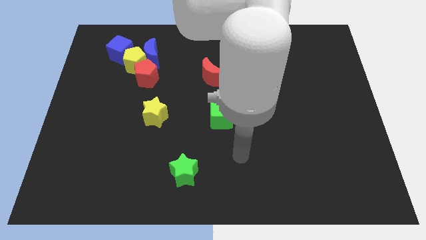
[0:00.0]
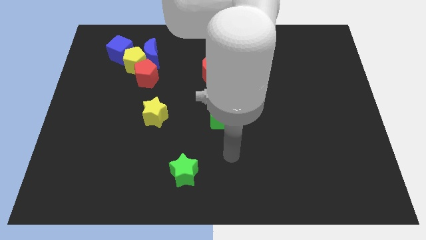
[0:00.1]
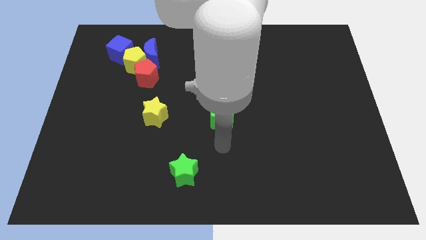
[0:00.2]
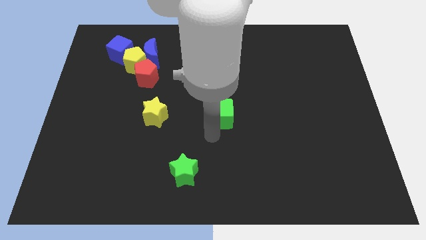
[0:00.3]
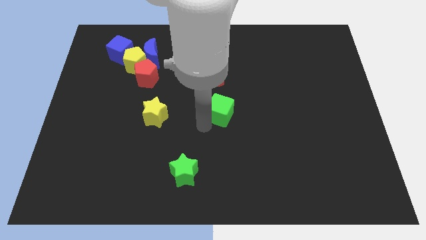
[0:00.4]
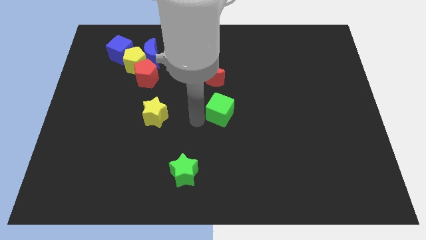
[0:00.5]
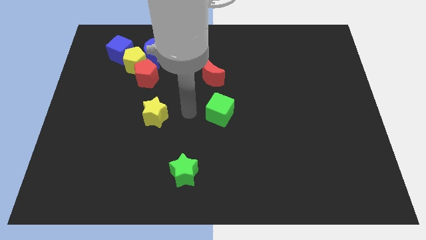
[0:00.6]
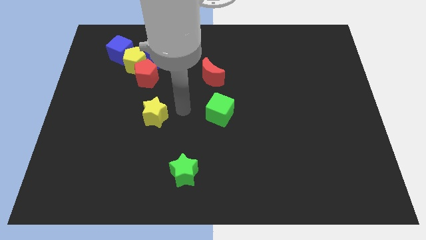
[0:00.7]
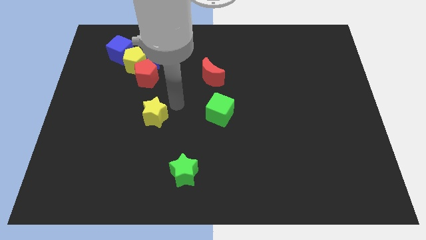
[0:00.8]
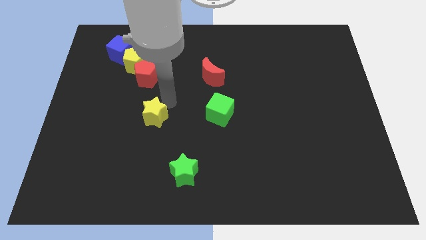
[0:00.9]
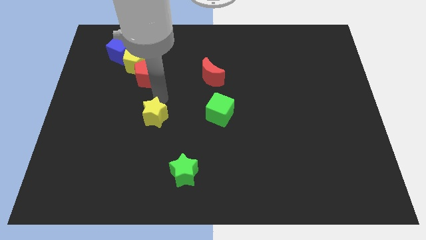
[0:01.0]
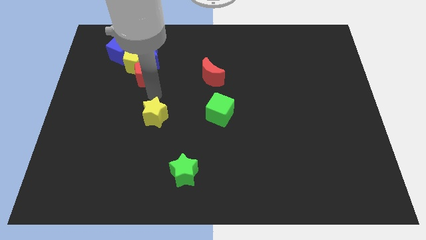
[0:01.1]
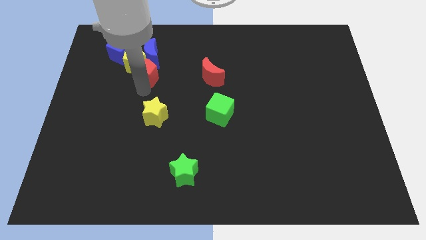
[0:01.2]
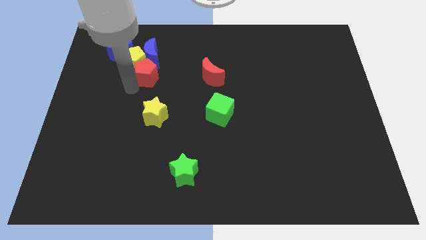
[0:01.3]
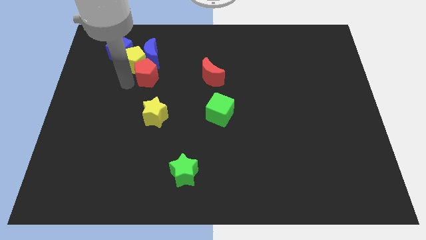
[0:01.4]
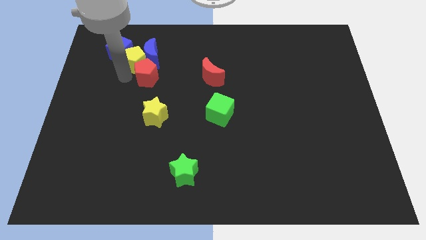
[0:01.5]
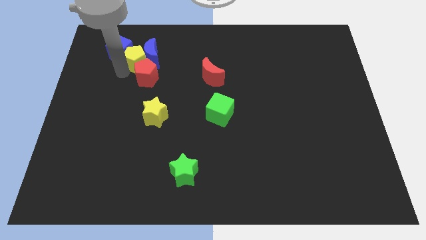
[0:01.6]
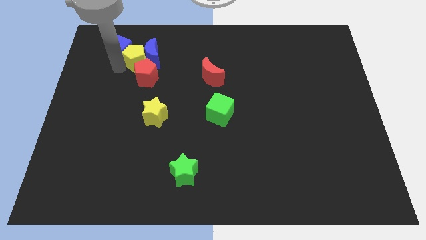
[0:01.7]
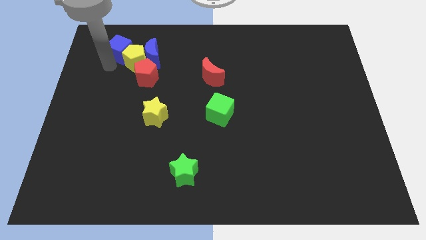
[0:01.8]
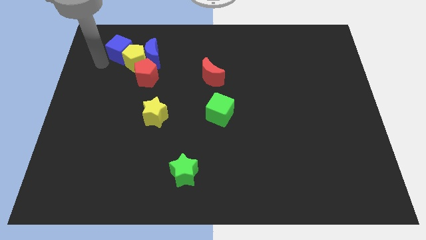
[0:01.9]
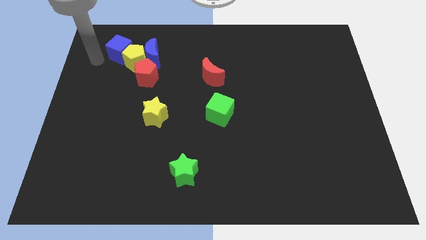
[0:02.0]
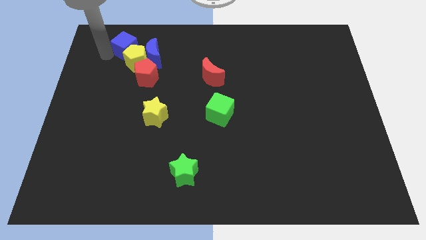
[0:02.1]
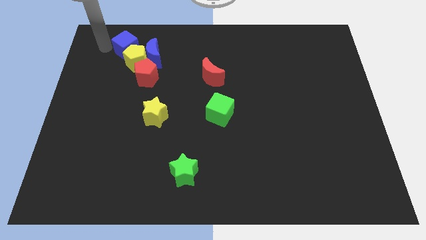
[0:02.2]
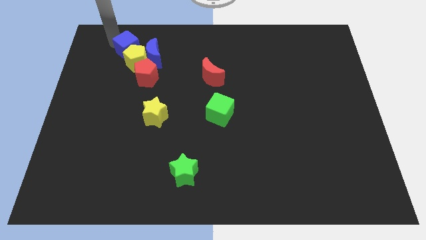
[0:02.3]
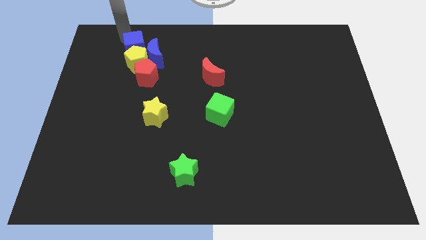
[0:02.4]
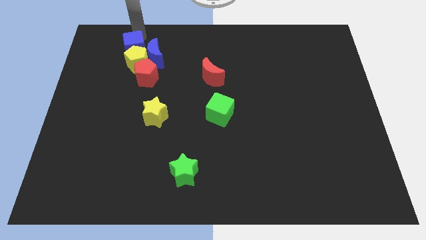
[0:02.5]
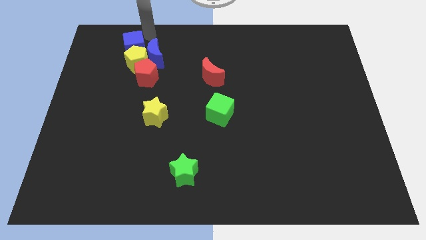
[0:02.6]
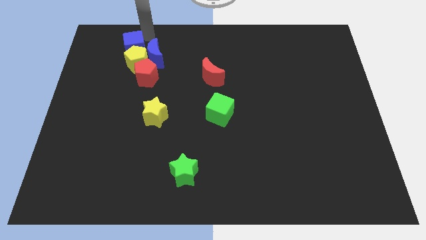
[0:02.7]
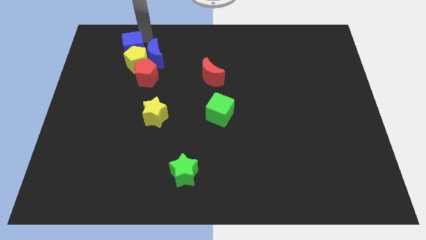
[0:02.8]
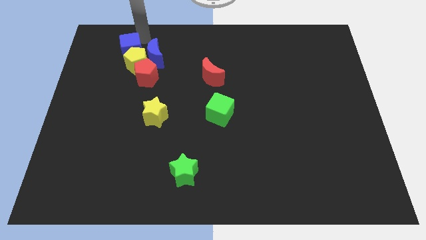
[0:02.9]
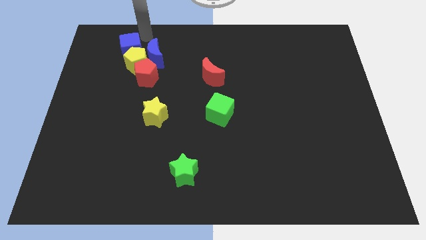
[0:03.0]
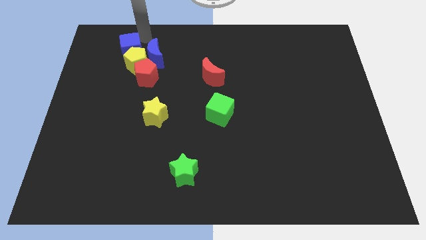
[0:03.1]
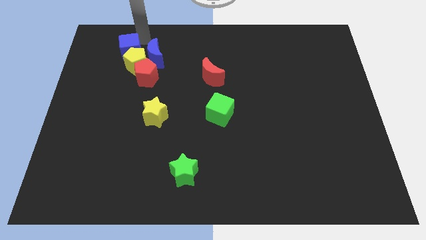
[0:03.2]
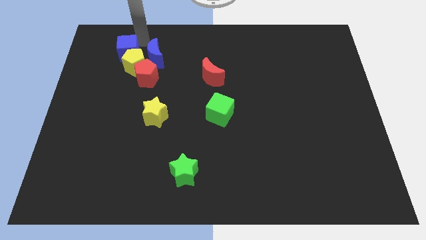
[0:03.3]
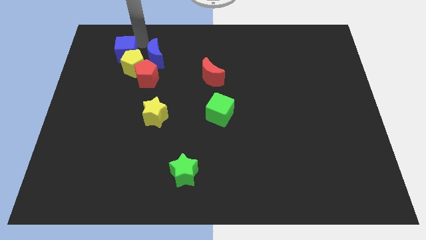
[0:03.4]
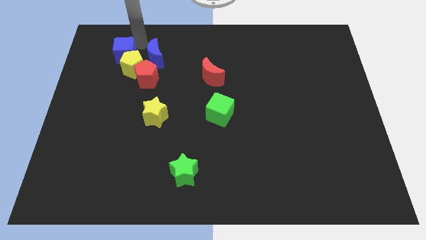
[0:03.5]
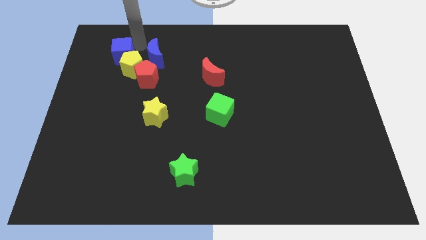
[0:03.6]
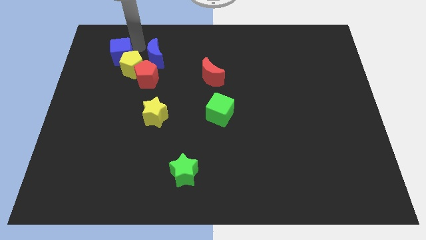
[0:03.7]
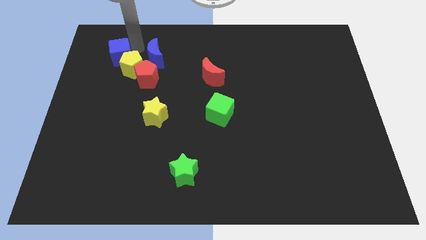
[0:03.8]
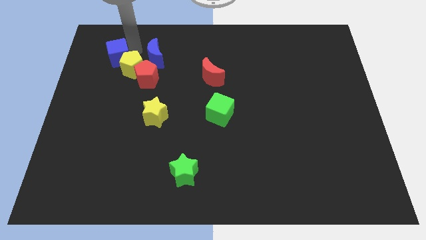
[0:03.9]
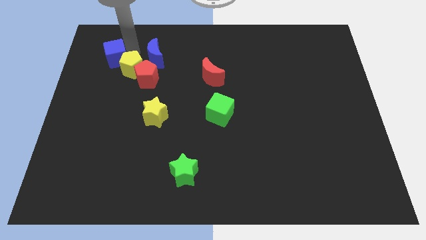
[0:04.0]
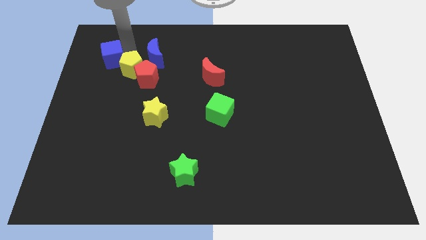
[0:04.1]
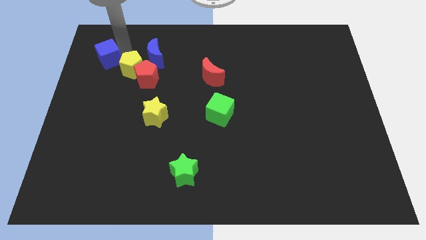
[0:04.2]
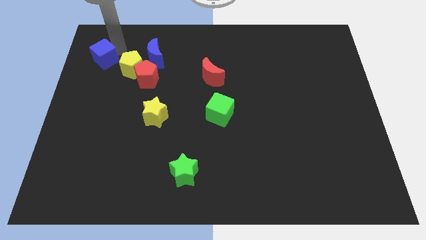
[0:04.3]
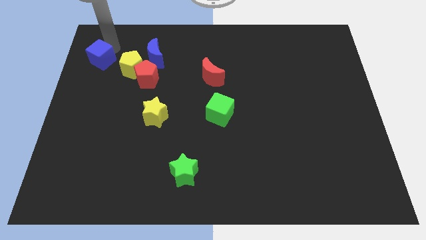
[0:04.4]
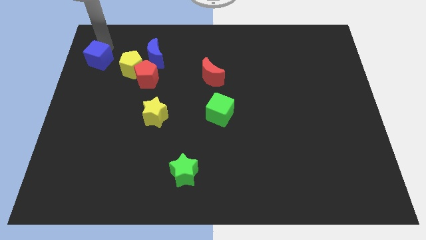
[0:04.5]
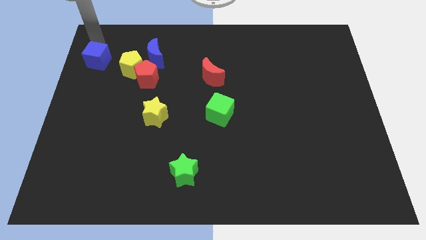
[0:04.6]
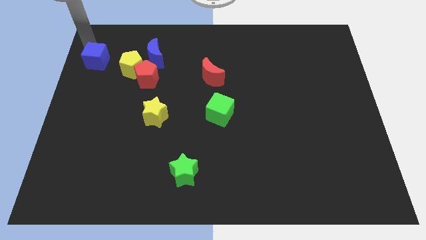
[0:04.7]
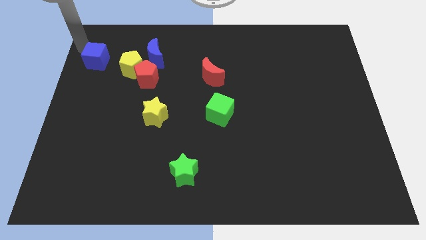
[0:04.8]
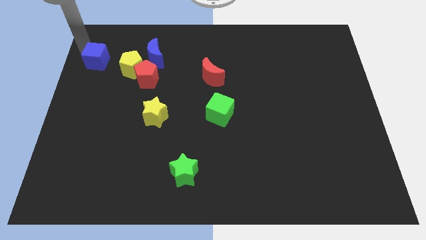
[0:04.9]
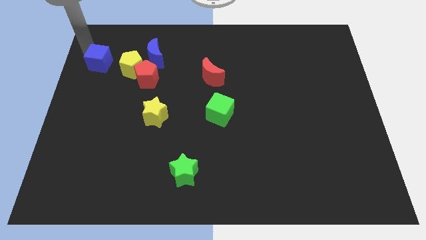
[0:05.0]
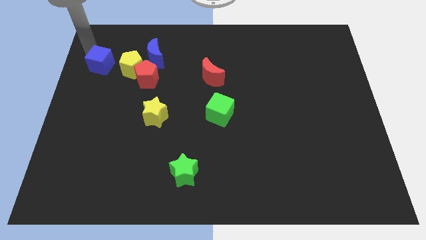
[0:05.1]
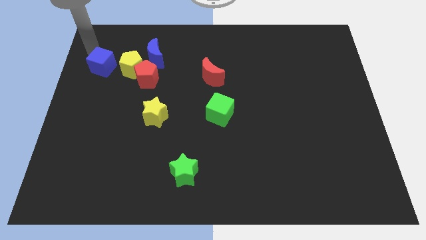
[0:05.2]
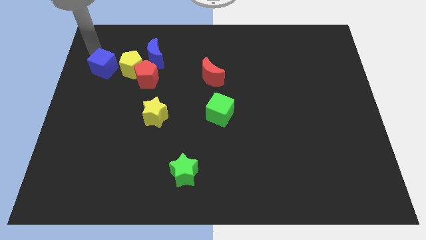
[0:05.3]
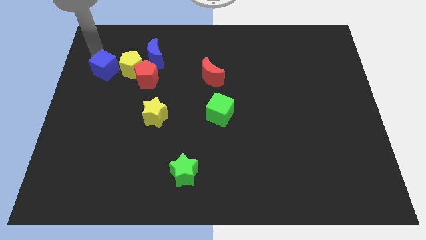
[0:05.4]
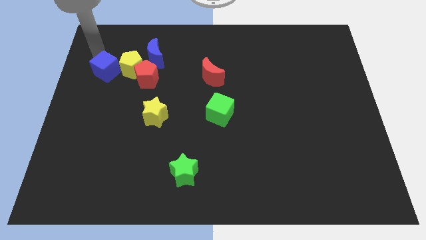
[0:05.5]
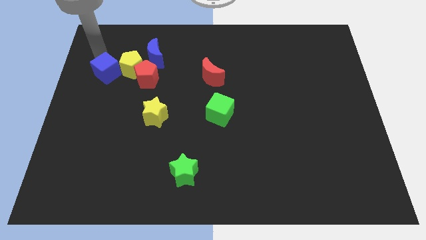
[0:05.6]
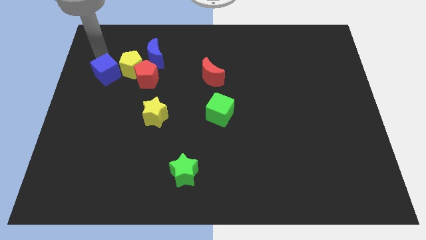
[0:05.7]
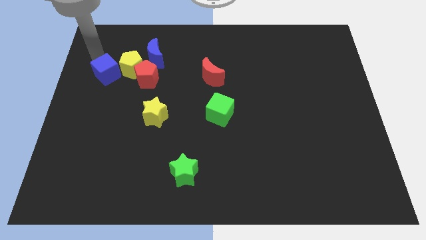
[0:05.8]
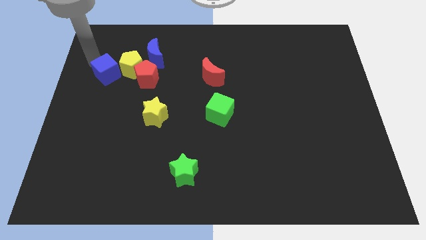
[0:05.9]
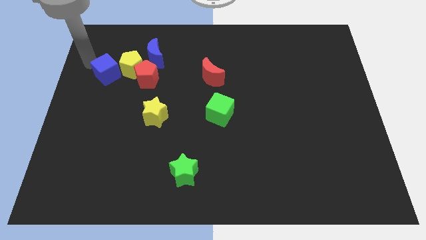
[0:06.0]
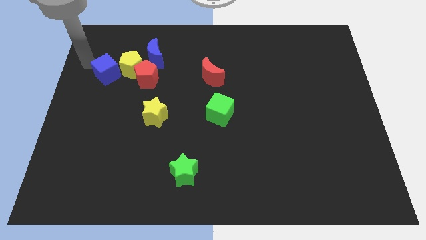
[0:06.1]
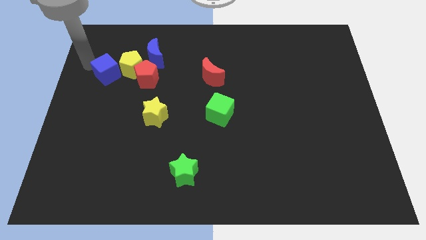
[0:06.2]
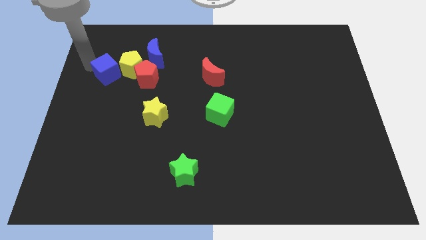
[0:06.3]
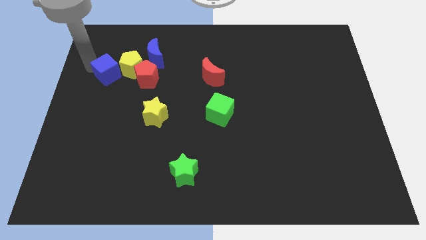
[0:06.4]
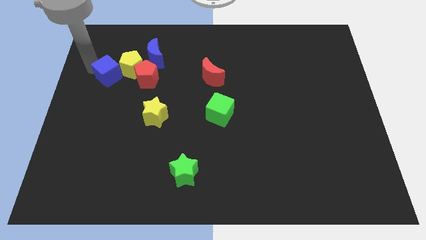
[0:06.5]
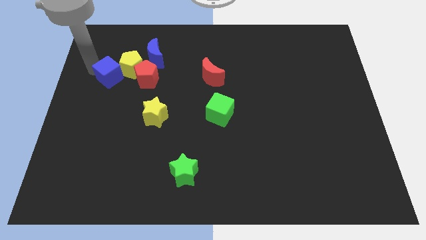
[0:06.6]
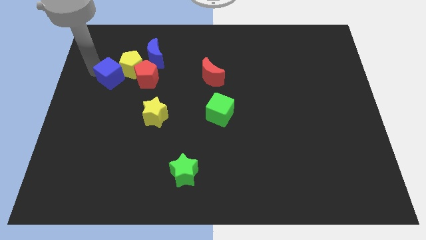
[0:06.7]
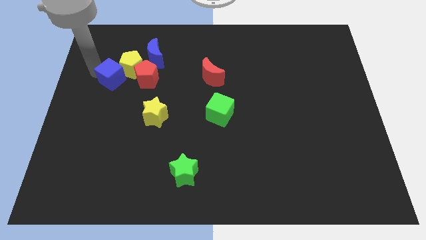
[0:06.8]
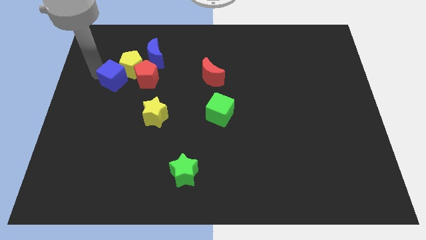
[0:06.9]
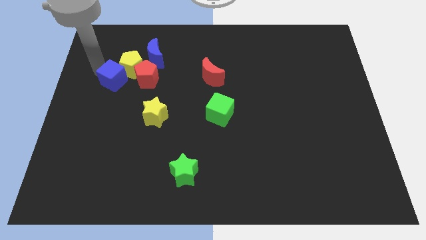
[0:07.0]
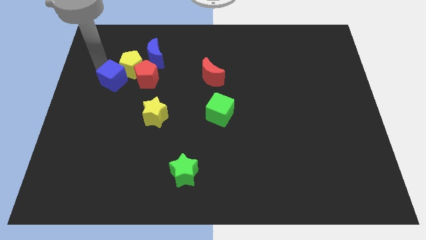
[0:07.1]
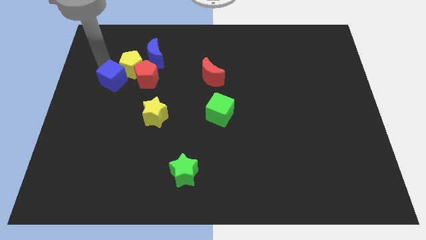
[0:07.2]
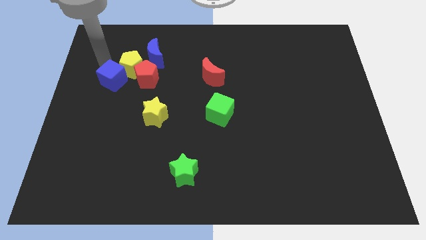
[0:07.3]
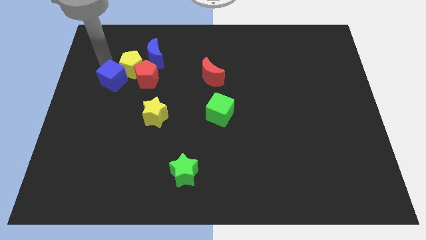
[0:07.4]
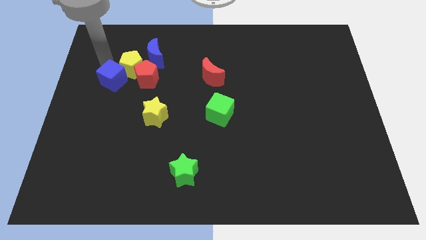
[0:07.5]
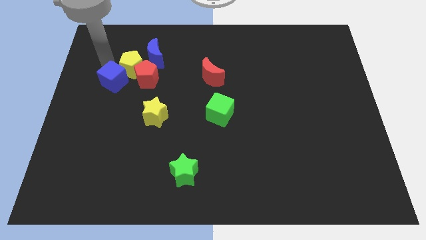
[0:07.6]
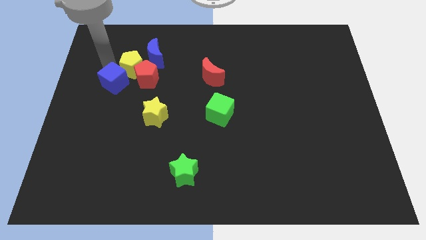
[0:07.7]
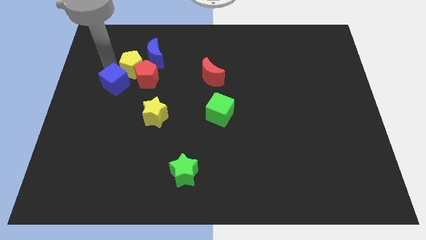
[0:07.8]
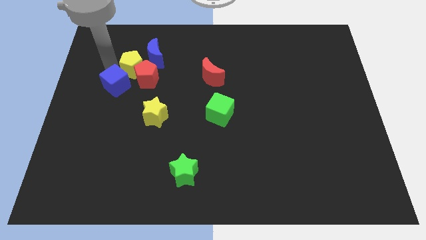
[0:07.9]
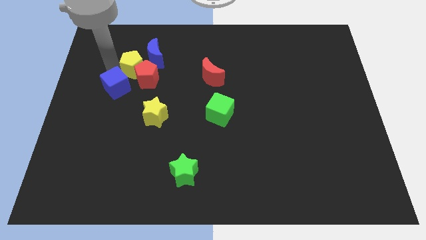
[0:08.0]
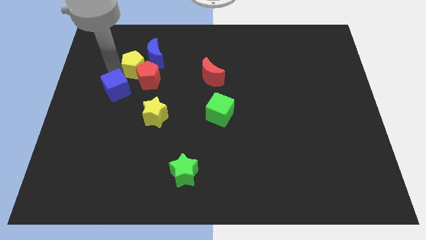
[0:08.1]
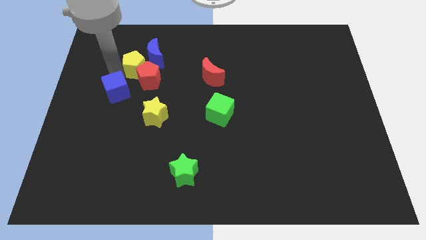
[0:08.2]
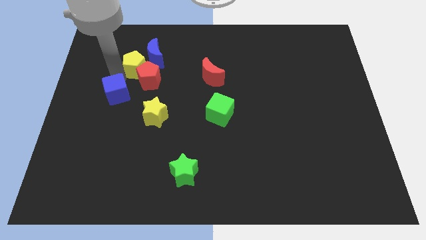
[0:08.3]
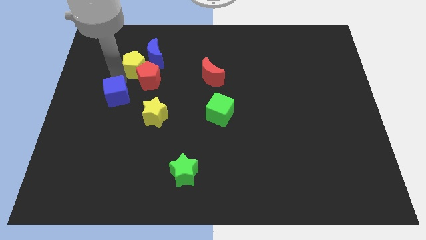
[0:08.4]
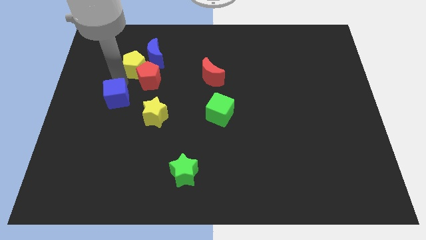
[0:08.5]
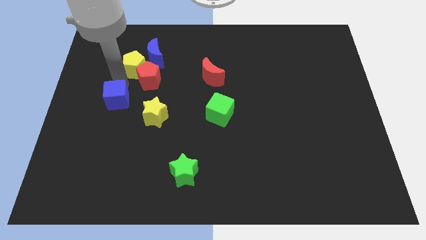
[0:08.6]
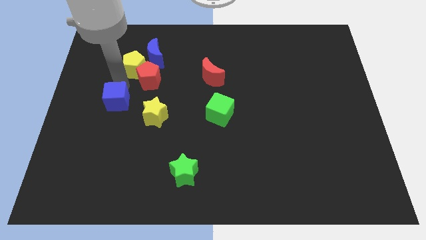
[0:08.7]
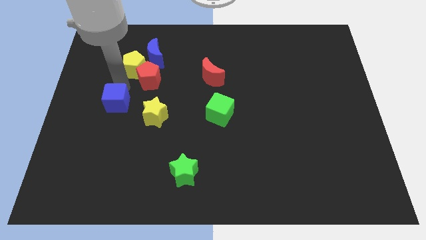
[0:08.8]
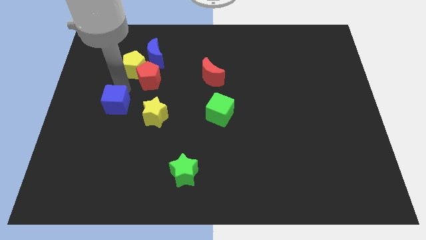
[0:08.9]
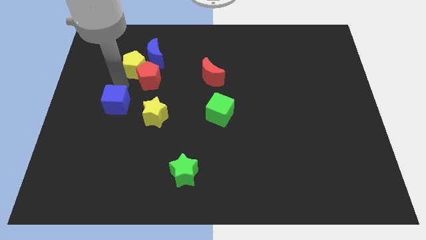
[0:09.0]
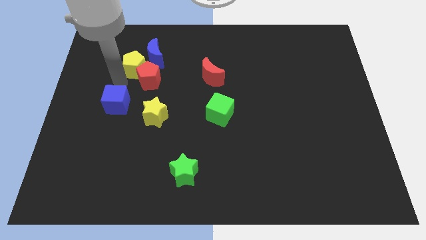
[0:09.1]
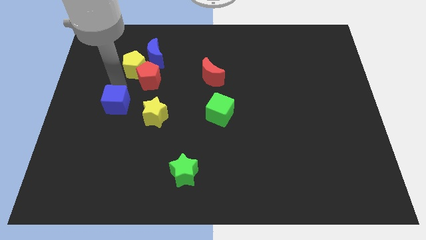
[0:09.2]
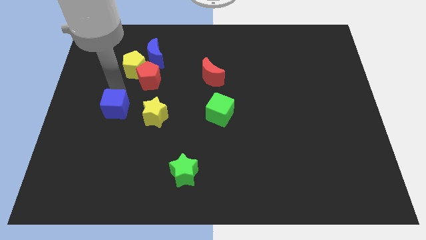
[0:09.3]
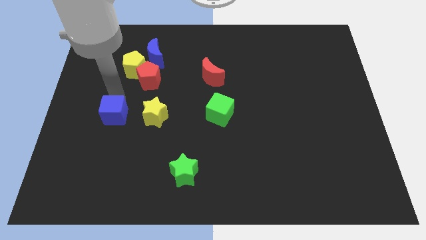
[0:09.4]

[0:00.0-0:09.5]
move the blue cube down
